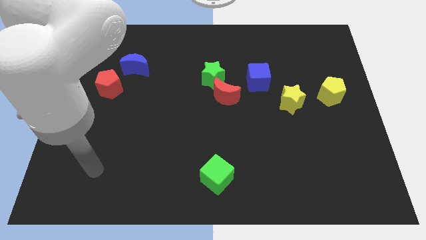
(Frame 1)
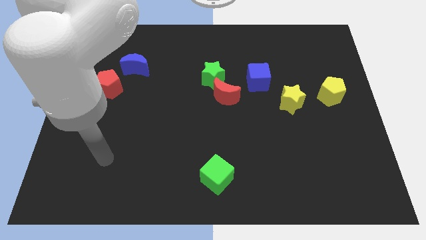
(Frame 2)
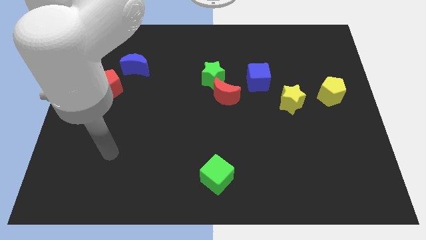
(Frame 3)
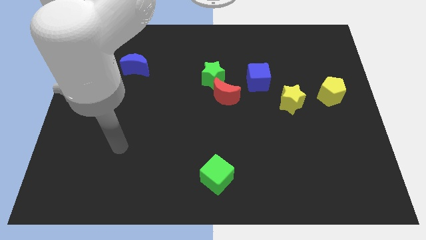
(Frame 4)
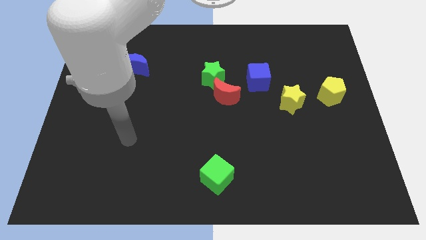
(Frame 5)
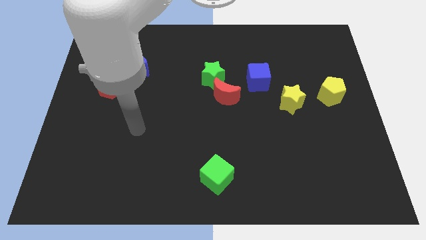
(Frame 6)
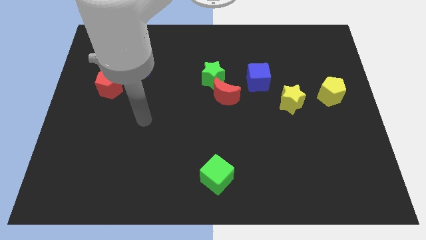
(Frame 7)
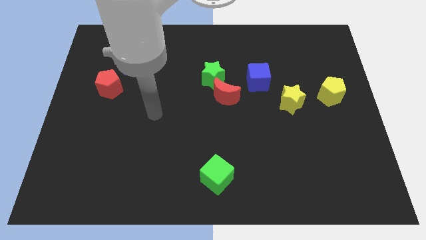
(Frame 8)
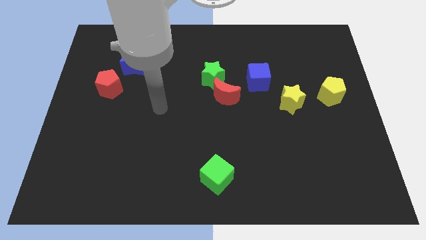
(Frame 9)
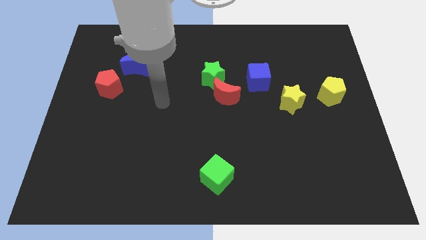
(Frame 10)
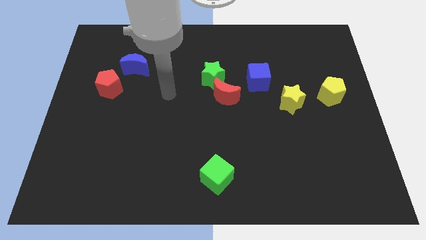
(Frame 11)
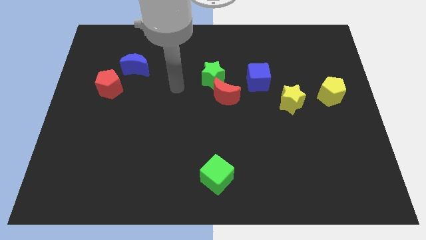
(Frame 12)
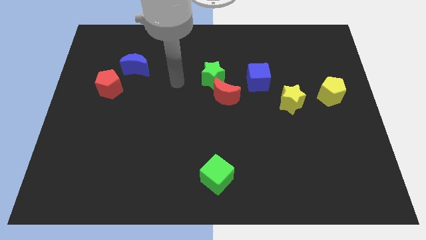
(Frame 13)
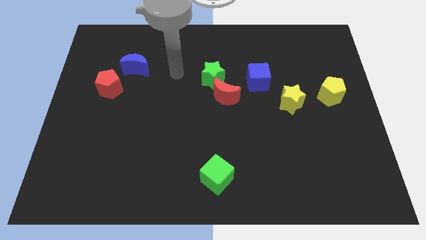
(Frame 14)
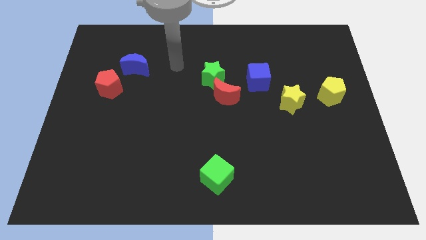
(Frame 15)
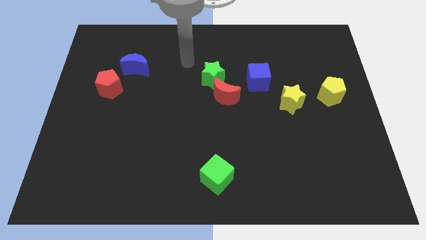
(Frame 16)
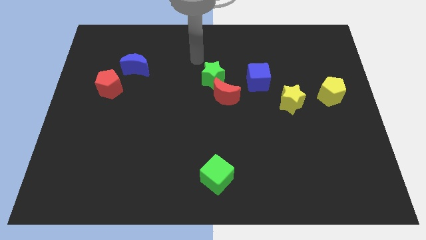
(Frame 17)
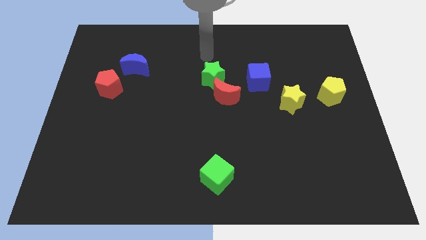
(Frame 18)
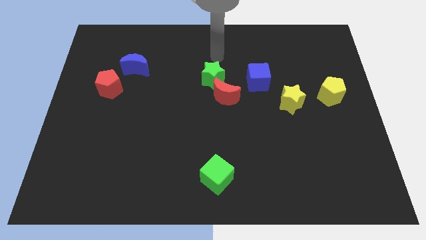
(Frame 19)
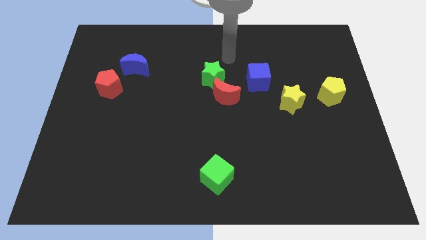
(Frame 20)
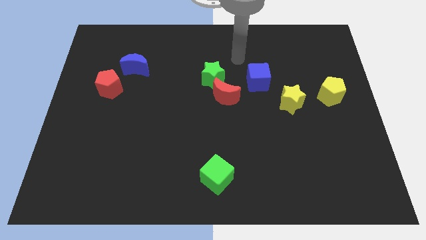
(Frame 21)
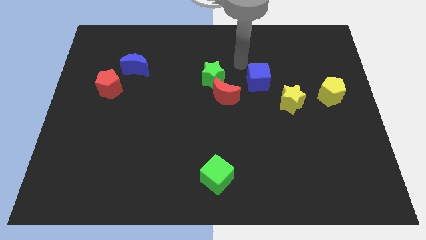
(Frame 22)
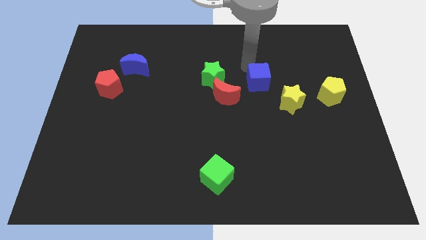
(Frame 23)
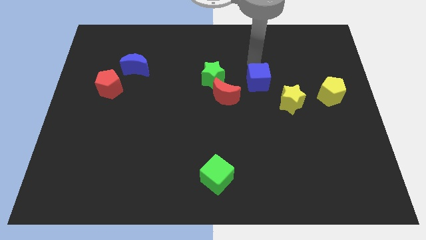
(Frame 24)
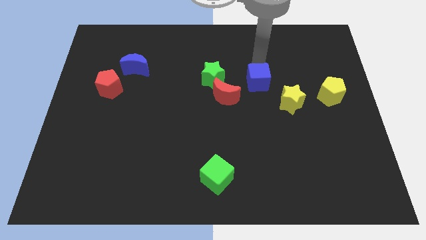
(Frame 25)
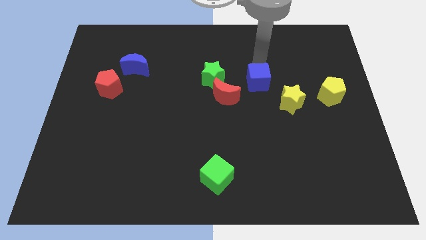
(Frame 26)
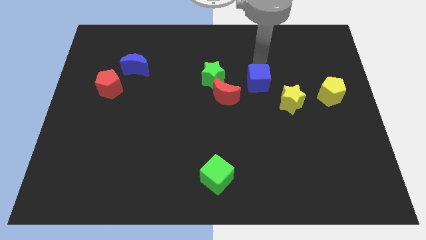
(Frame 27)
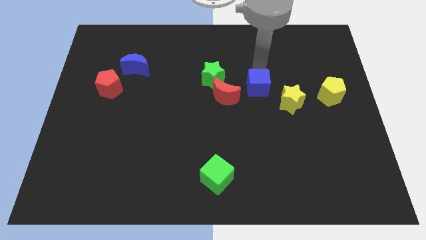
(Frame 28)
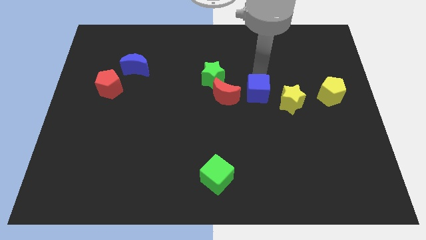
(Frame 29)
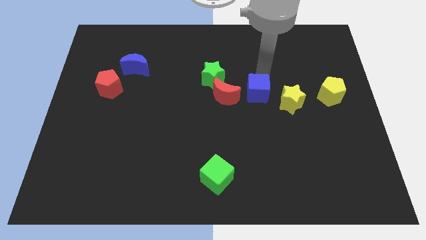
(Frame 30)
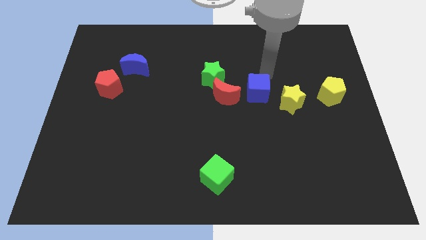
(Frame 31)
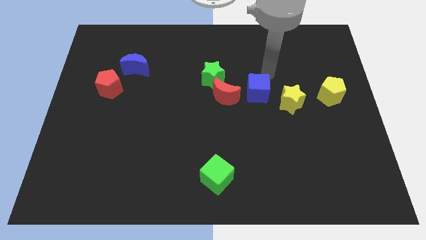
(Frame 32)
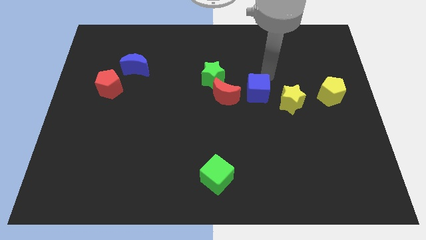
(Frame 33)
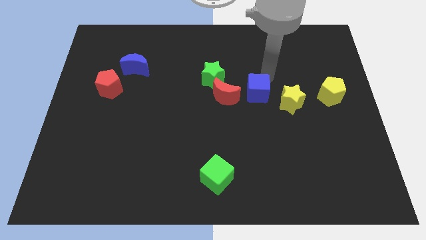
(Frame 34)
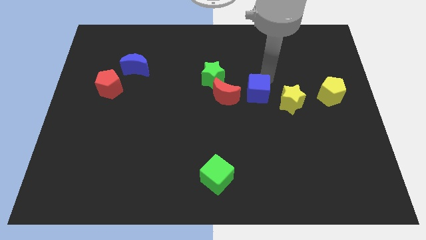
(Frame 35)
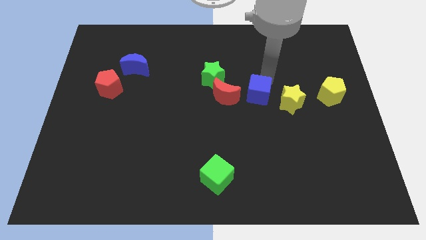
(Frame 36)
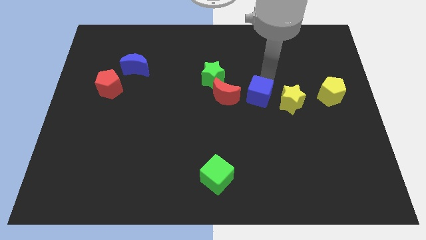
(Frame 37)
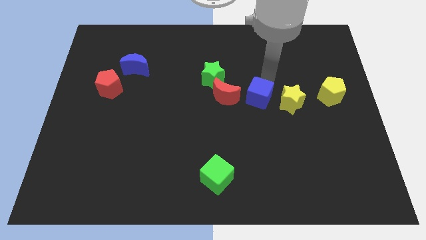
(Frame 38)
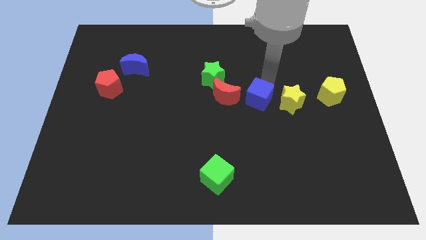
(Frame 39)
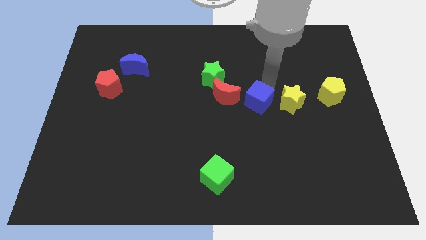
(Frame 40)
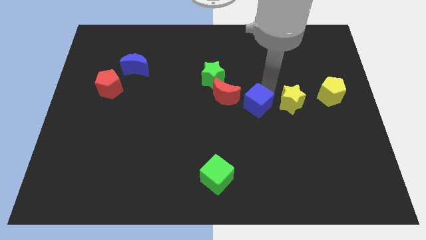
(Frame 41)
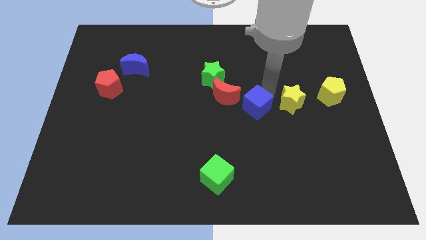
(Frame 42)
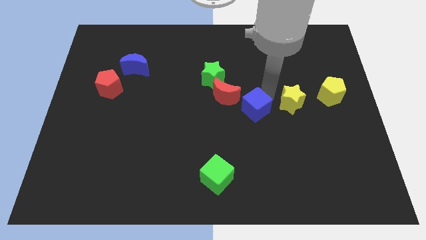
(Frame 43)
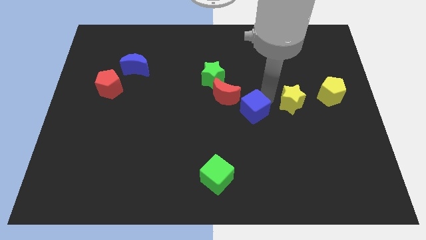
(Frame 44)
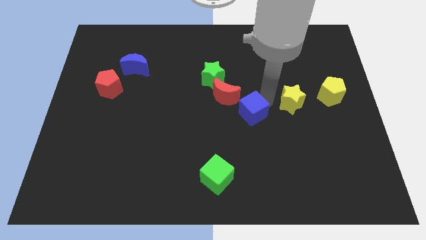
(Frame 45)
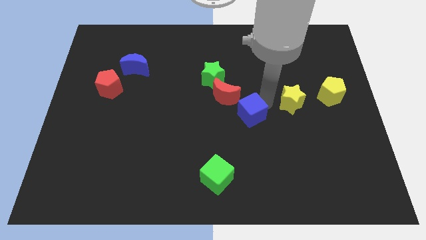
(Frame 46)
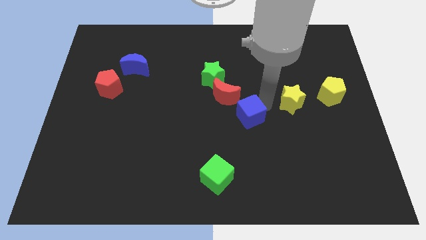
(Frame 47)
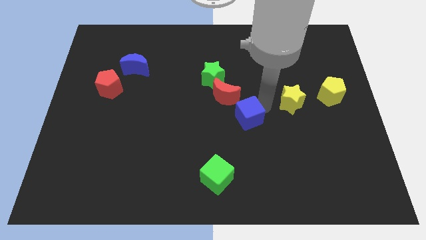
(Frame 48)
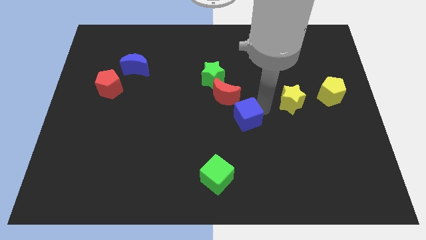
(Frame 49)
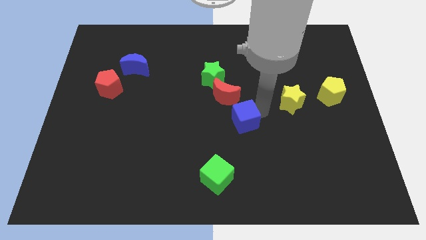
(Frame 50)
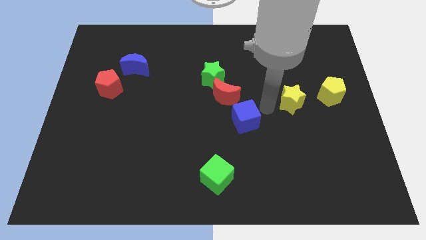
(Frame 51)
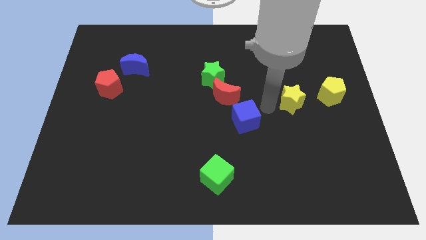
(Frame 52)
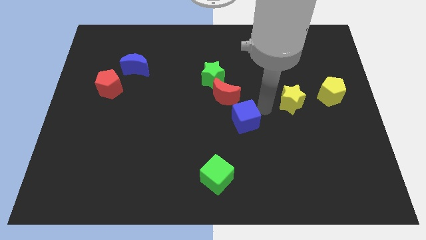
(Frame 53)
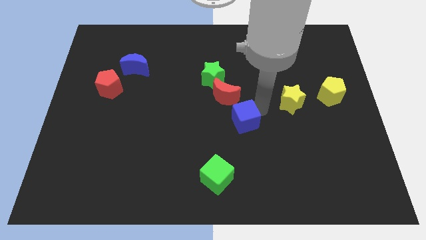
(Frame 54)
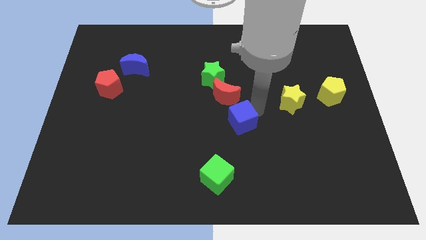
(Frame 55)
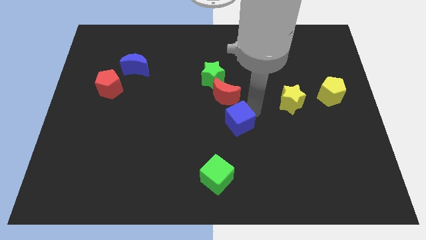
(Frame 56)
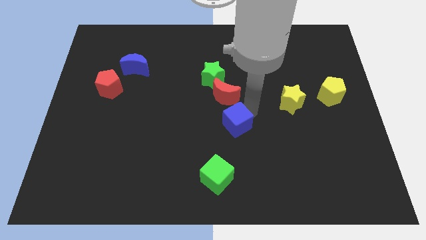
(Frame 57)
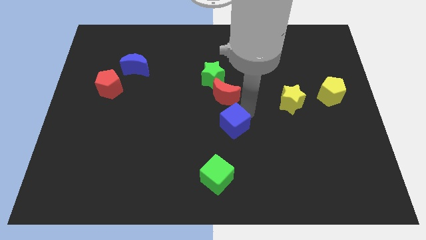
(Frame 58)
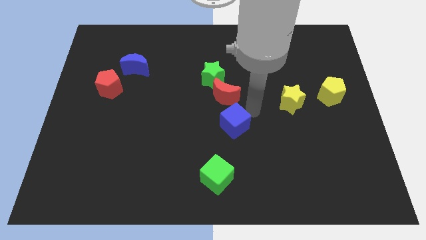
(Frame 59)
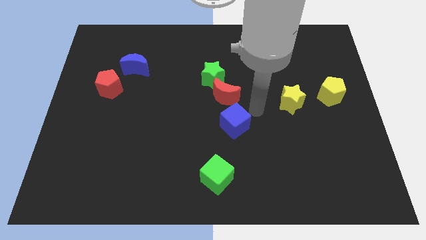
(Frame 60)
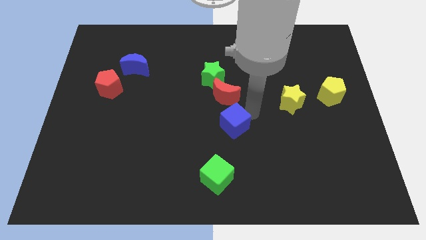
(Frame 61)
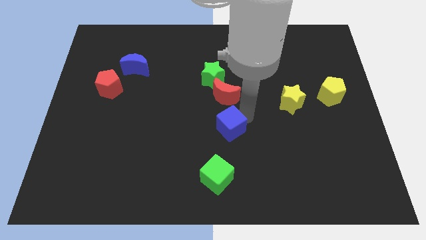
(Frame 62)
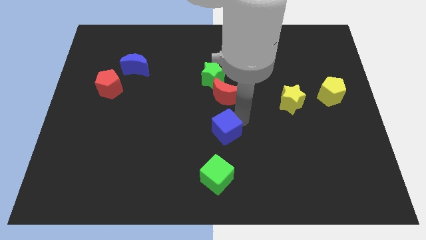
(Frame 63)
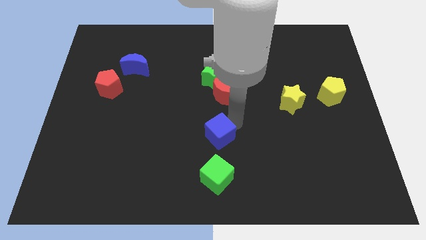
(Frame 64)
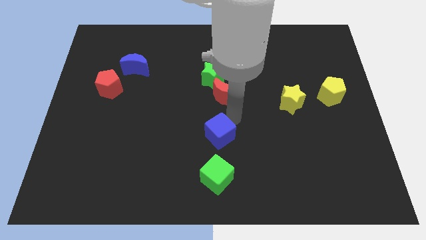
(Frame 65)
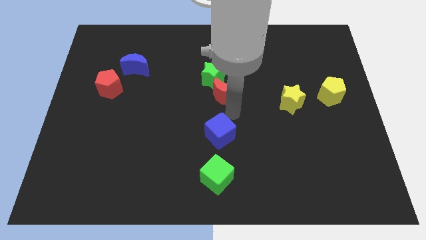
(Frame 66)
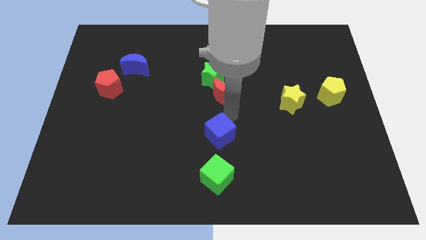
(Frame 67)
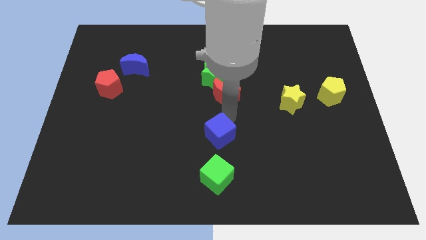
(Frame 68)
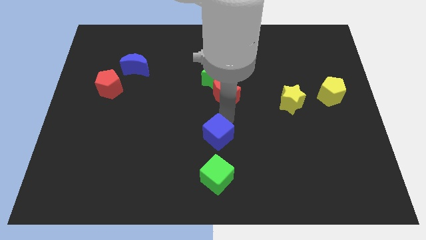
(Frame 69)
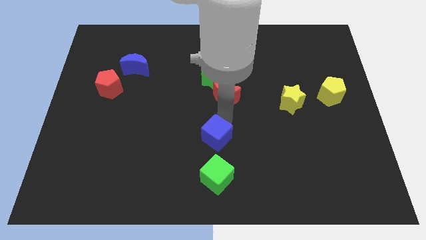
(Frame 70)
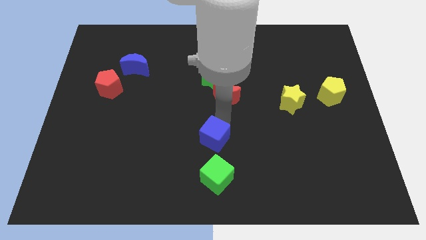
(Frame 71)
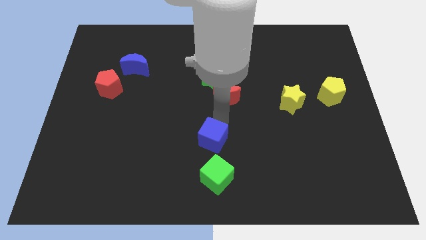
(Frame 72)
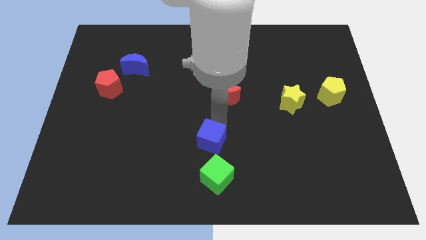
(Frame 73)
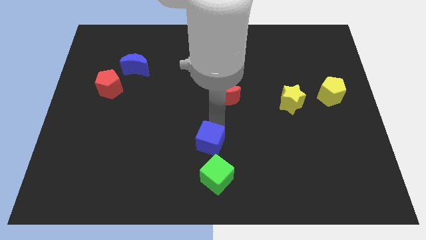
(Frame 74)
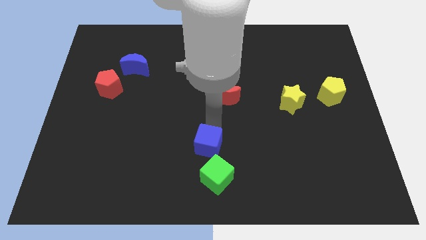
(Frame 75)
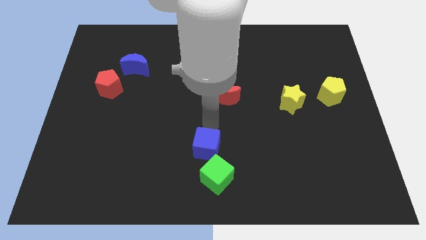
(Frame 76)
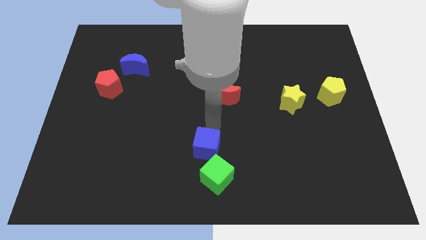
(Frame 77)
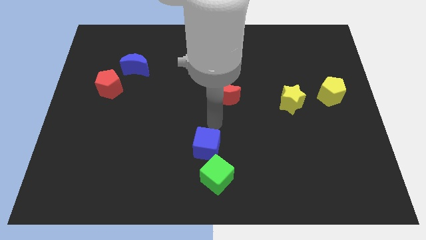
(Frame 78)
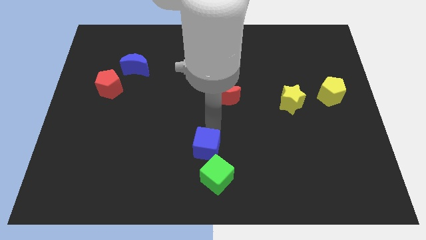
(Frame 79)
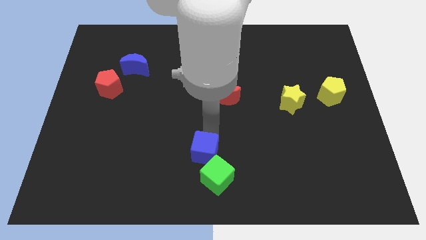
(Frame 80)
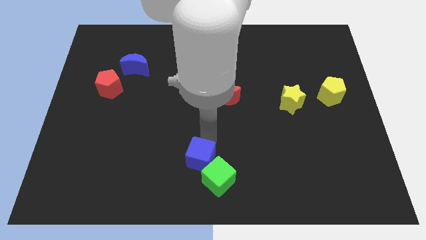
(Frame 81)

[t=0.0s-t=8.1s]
push the blue cube to the bottom side
